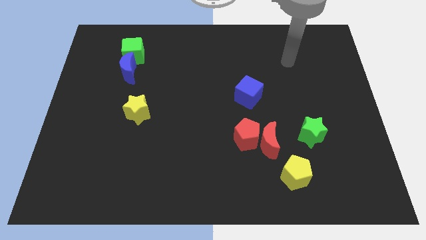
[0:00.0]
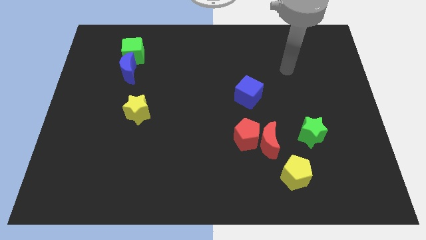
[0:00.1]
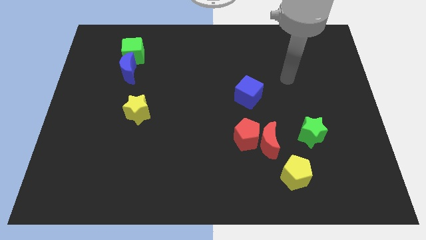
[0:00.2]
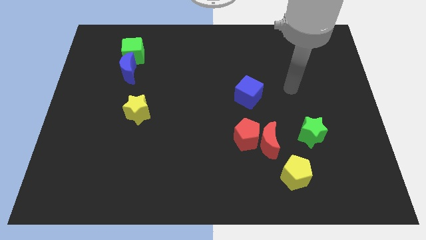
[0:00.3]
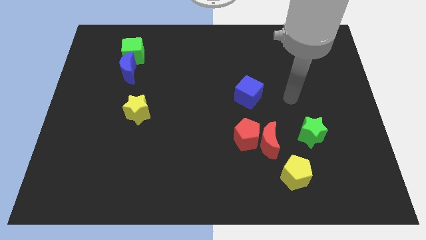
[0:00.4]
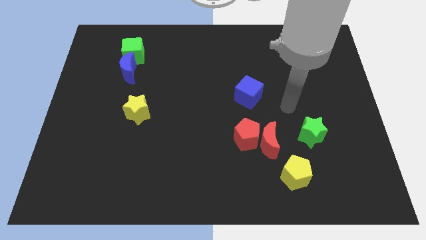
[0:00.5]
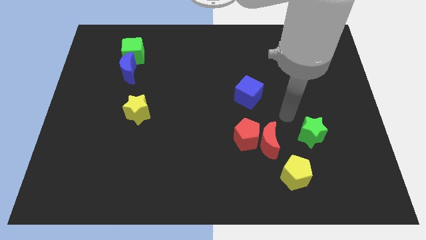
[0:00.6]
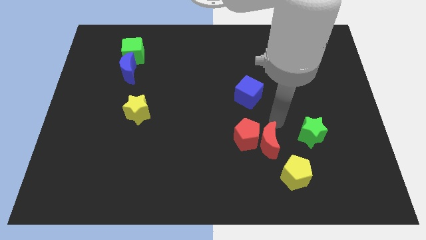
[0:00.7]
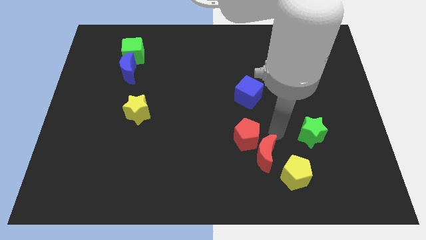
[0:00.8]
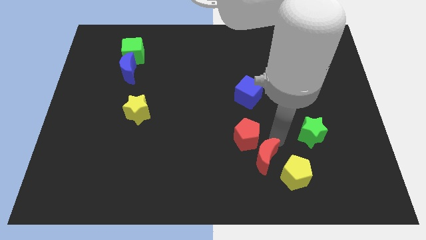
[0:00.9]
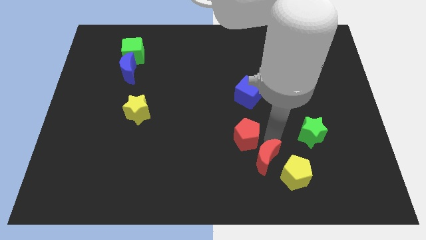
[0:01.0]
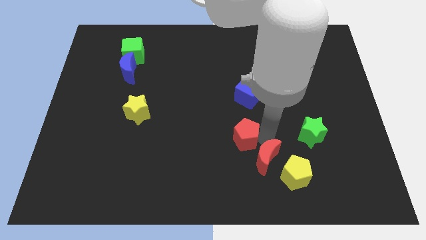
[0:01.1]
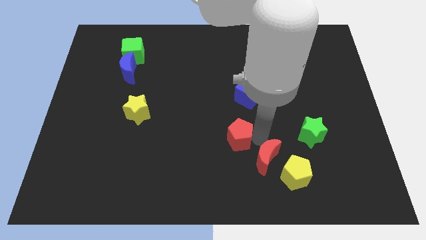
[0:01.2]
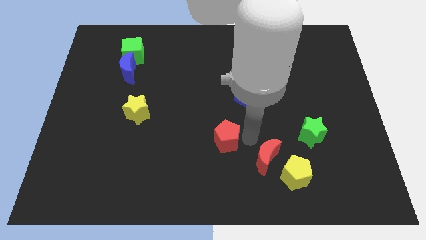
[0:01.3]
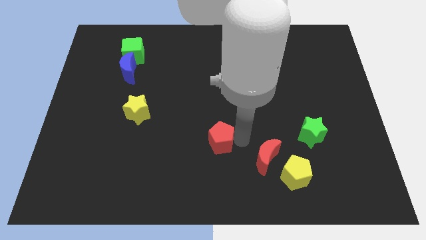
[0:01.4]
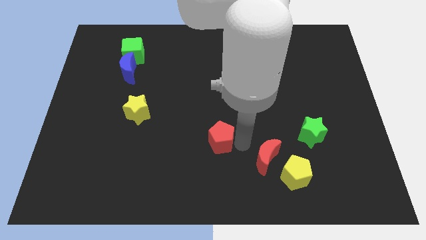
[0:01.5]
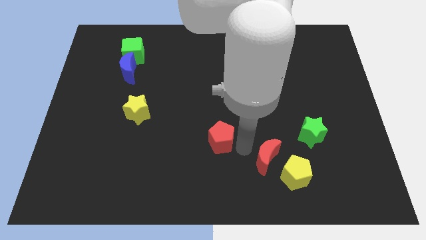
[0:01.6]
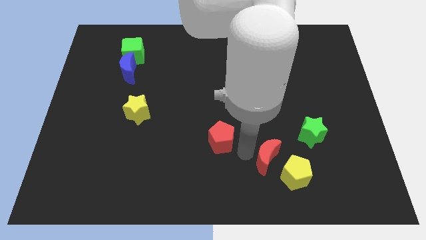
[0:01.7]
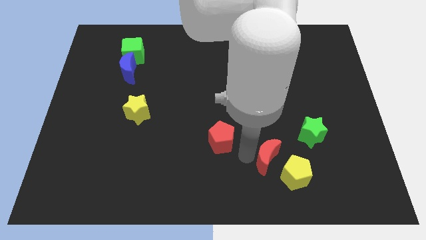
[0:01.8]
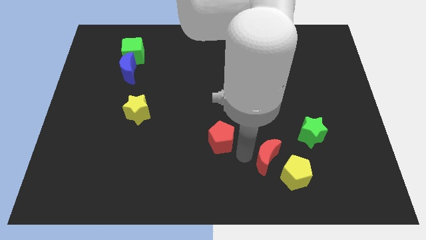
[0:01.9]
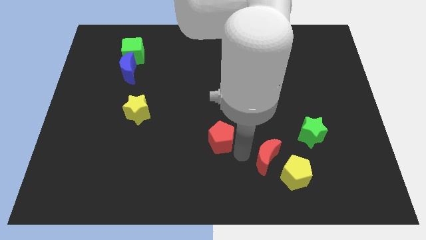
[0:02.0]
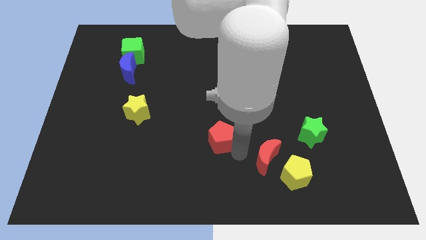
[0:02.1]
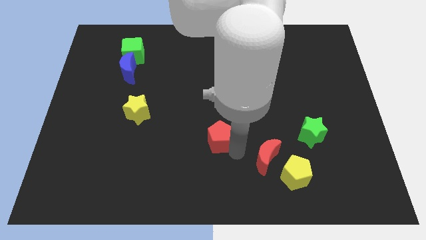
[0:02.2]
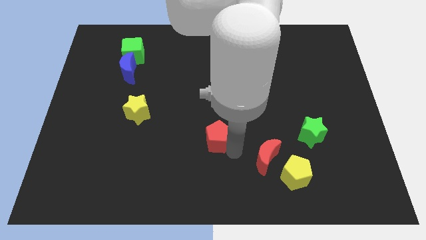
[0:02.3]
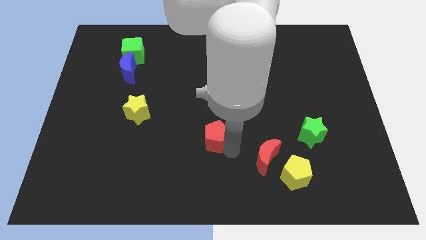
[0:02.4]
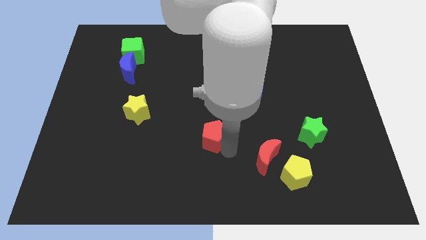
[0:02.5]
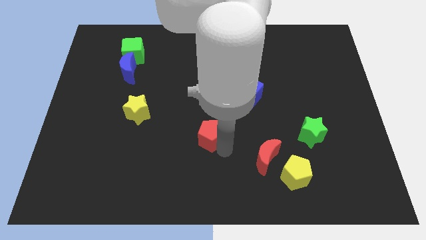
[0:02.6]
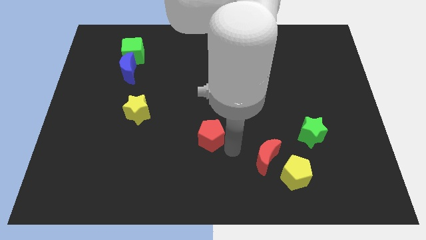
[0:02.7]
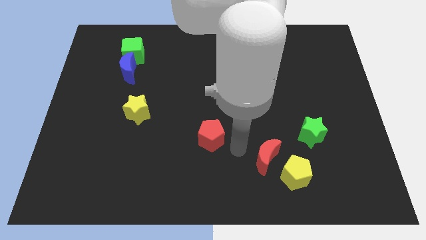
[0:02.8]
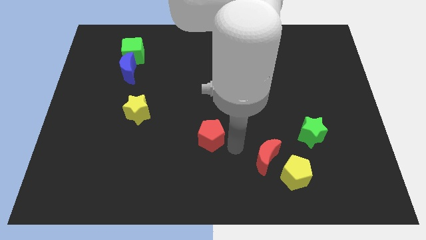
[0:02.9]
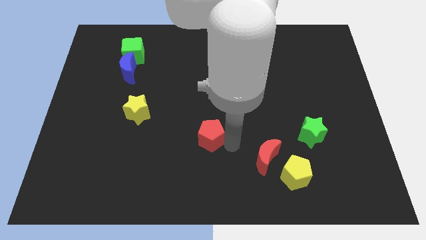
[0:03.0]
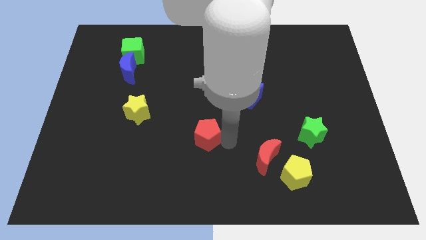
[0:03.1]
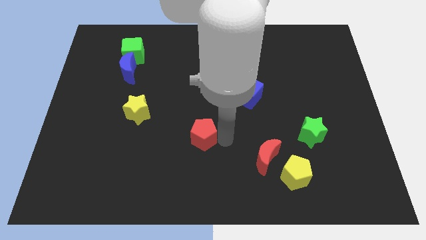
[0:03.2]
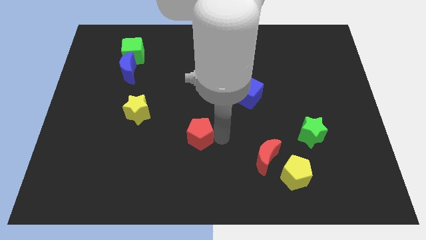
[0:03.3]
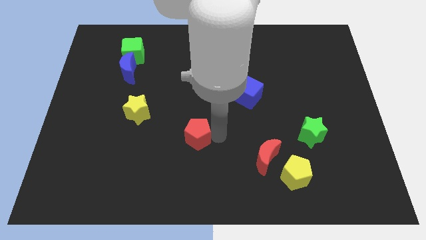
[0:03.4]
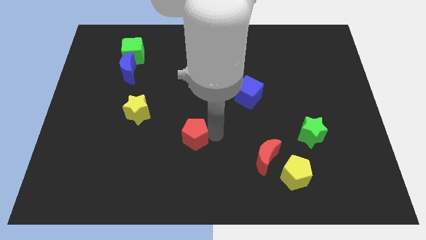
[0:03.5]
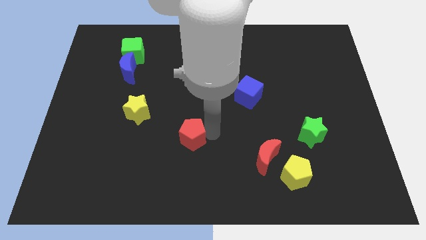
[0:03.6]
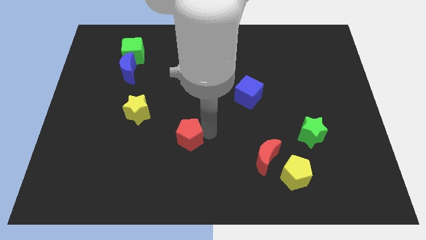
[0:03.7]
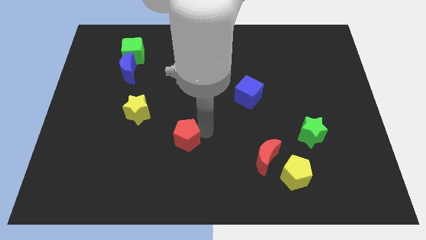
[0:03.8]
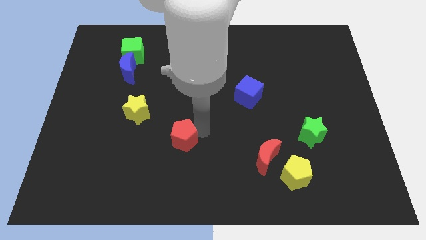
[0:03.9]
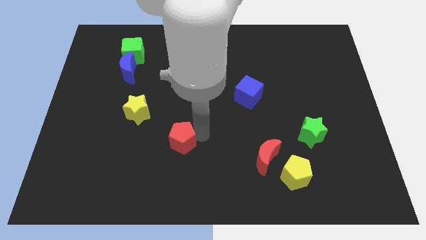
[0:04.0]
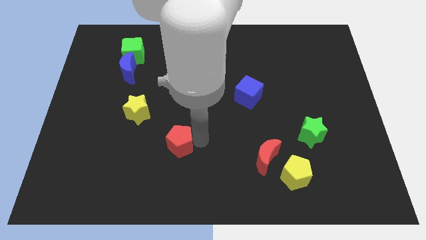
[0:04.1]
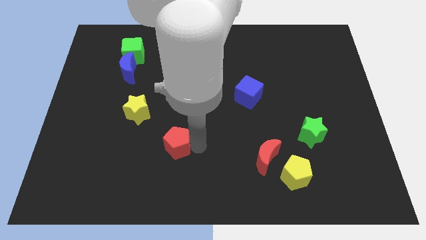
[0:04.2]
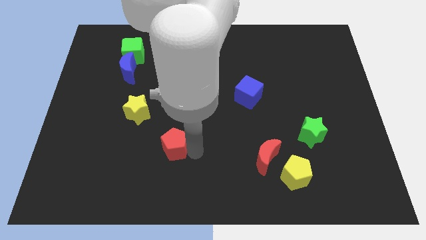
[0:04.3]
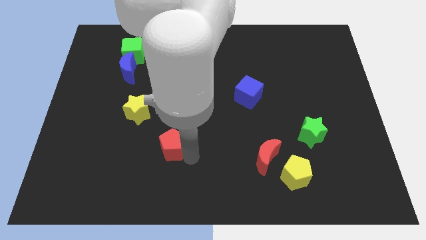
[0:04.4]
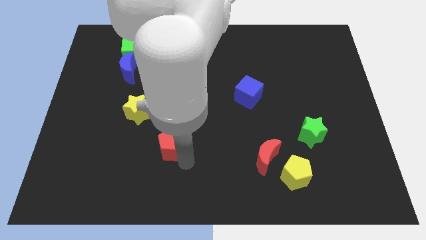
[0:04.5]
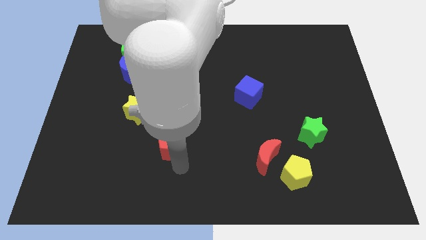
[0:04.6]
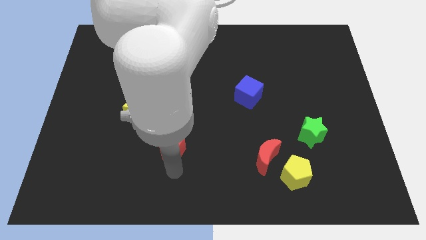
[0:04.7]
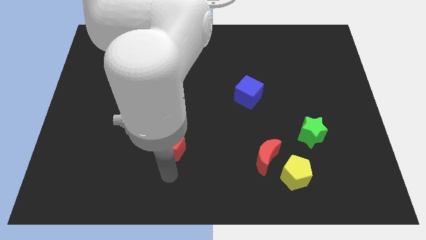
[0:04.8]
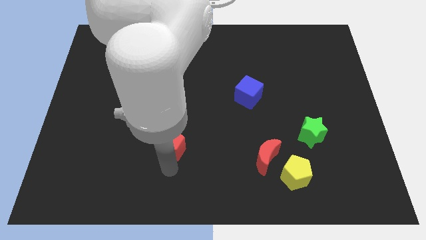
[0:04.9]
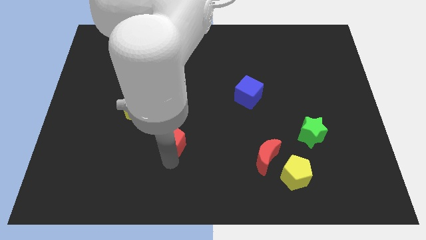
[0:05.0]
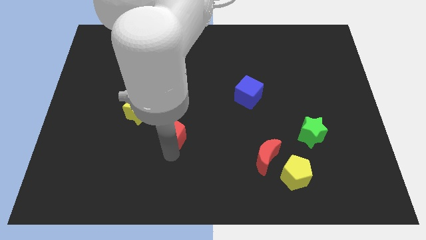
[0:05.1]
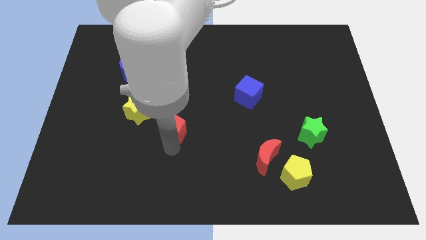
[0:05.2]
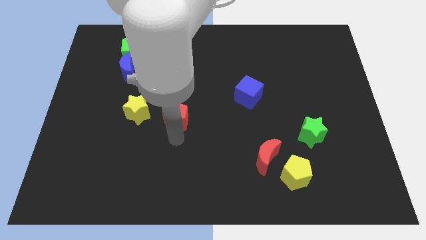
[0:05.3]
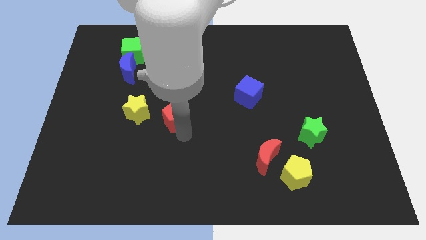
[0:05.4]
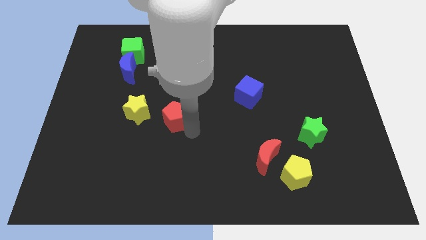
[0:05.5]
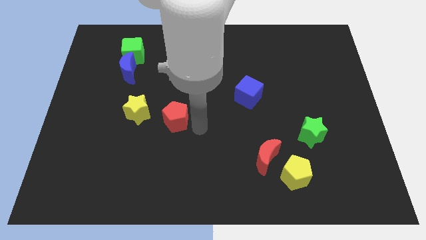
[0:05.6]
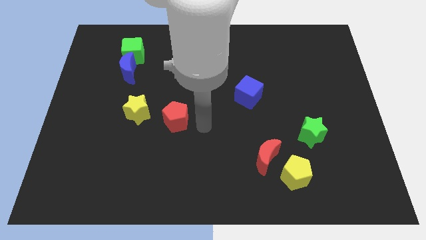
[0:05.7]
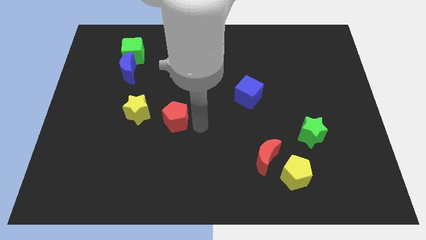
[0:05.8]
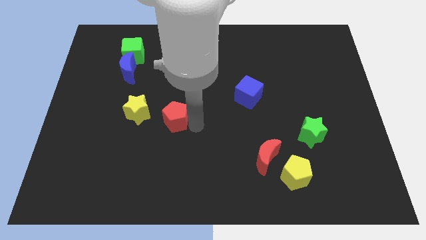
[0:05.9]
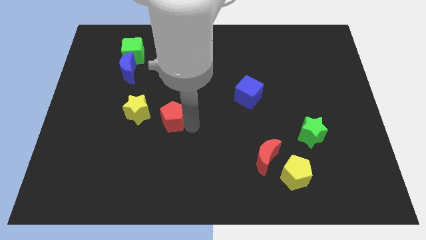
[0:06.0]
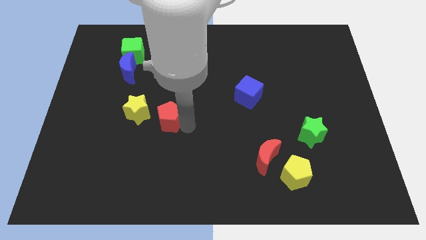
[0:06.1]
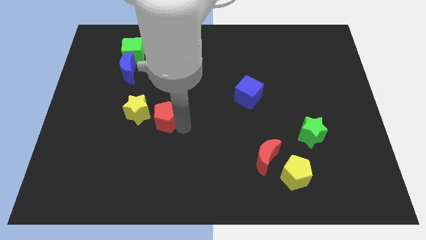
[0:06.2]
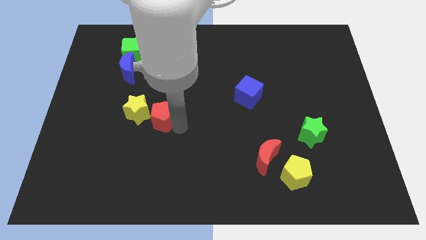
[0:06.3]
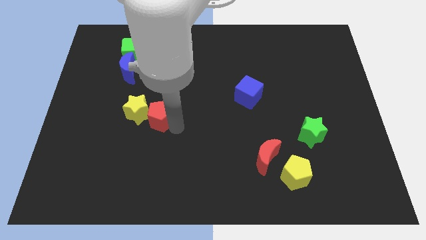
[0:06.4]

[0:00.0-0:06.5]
slide the red pentagon to the yellow star

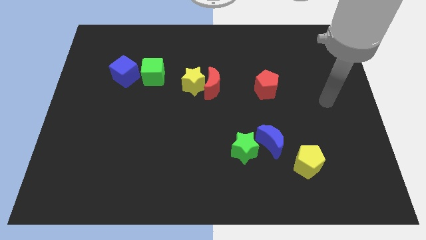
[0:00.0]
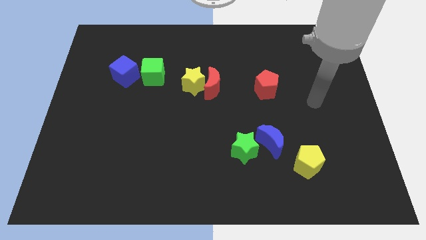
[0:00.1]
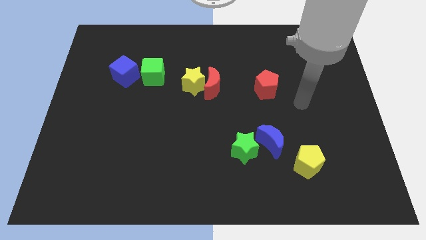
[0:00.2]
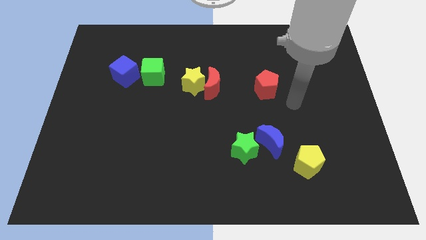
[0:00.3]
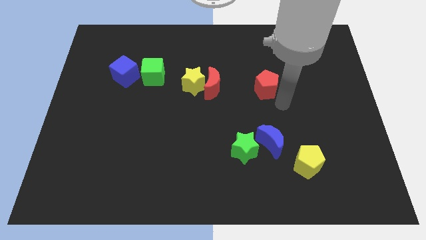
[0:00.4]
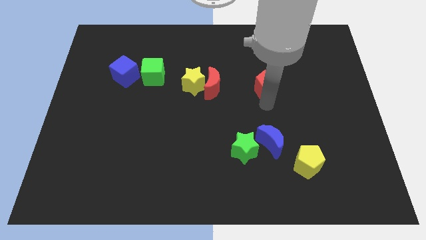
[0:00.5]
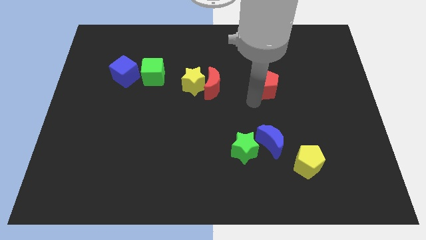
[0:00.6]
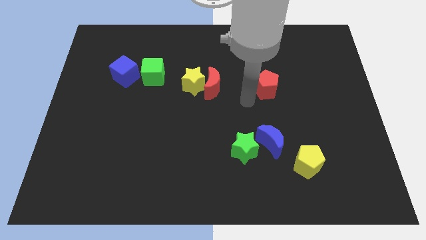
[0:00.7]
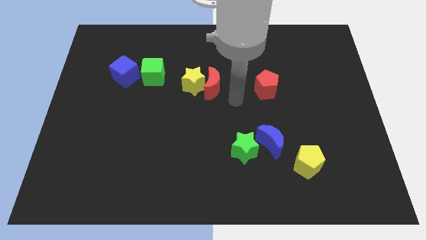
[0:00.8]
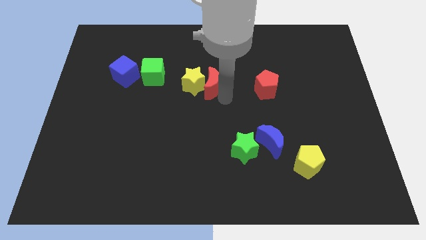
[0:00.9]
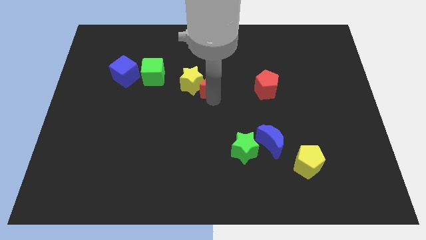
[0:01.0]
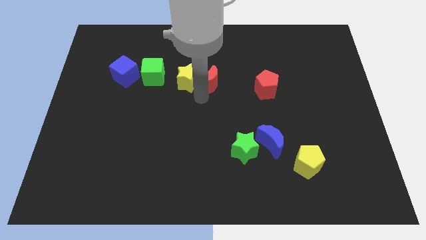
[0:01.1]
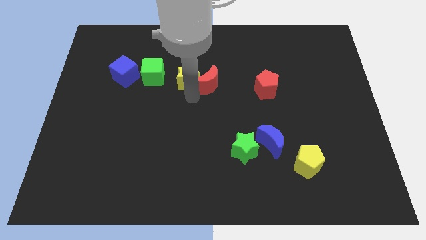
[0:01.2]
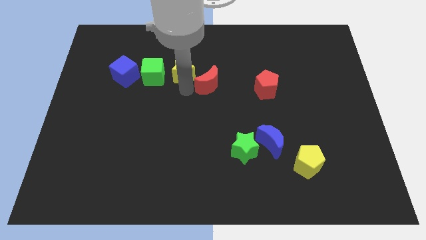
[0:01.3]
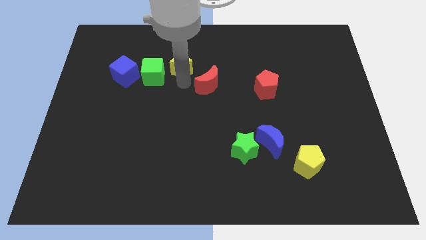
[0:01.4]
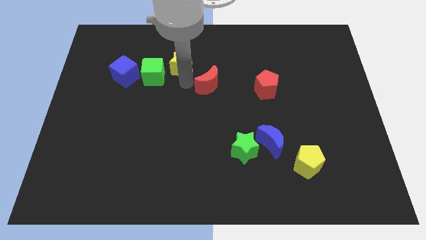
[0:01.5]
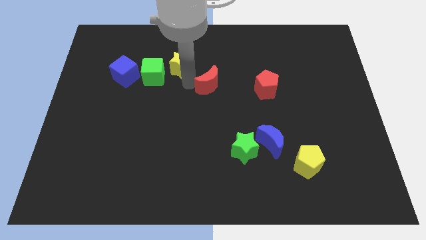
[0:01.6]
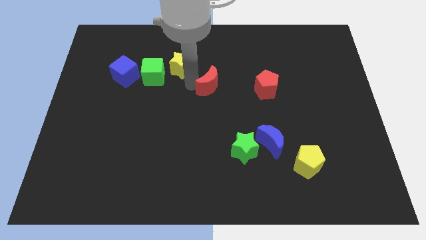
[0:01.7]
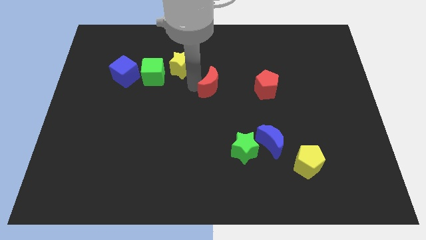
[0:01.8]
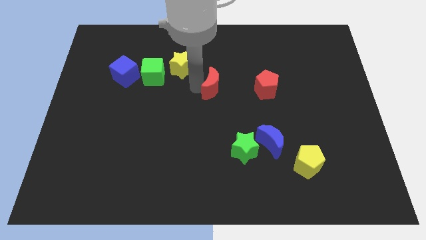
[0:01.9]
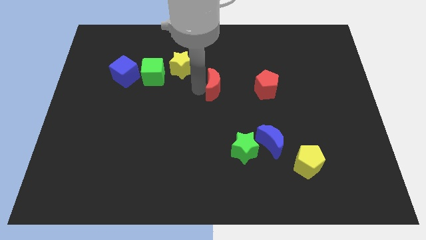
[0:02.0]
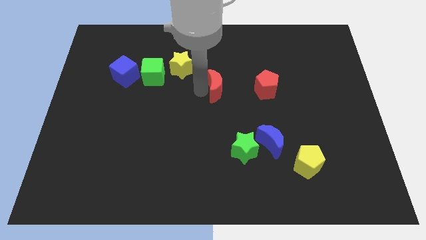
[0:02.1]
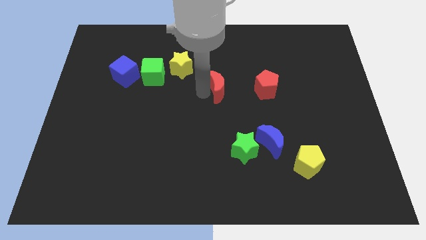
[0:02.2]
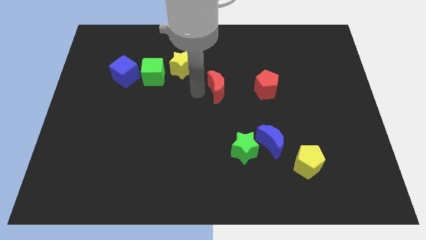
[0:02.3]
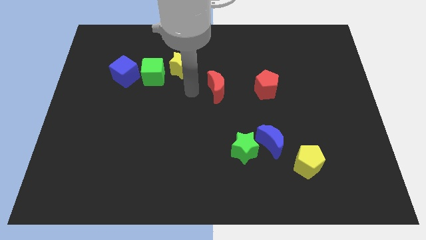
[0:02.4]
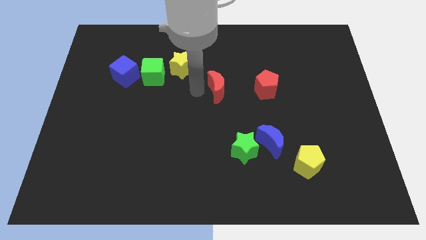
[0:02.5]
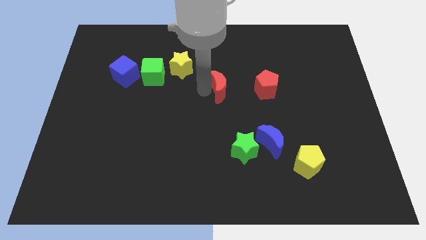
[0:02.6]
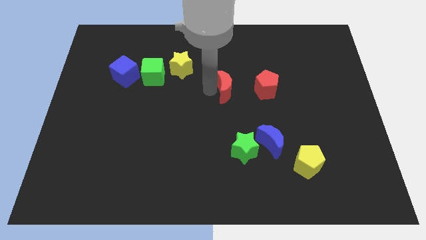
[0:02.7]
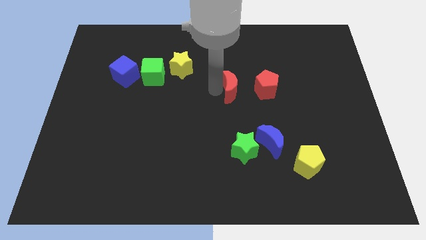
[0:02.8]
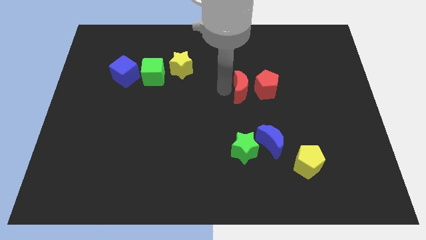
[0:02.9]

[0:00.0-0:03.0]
push the red moon next to the red pentagon
